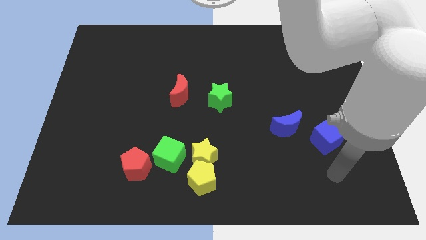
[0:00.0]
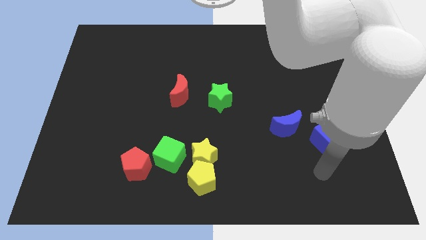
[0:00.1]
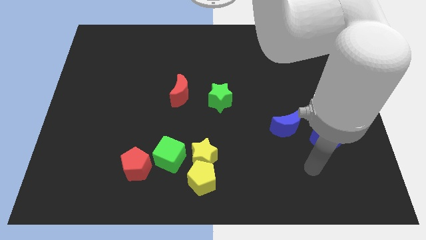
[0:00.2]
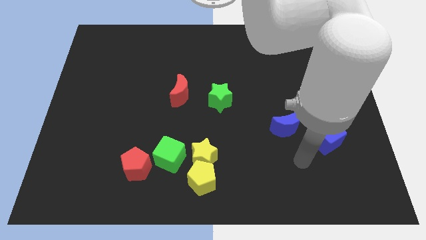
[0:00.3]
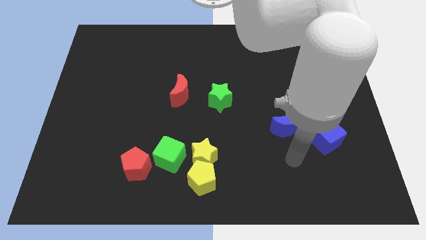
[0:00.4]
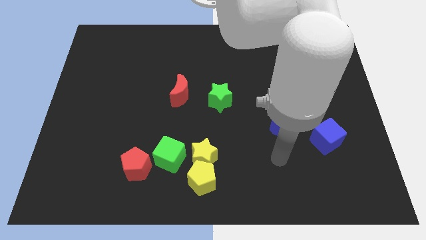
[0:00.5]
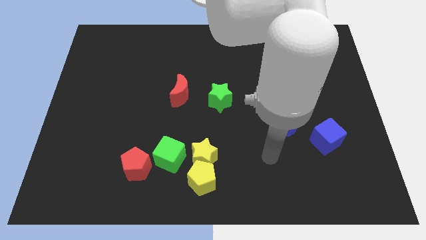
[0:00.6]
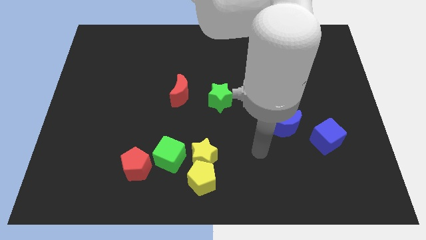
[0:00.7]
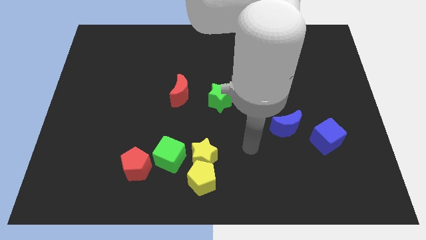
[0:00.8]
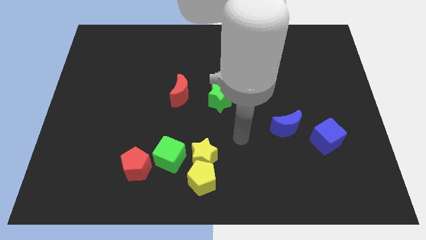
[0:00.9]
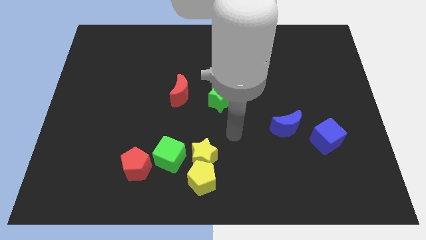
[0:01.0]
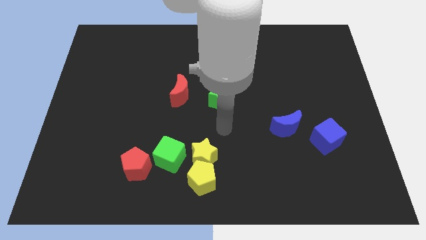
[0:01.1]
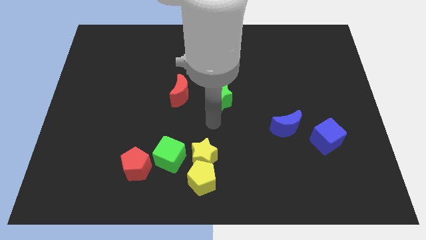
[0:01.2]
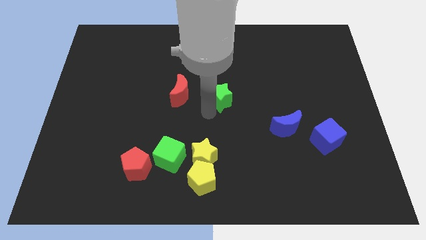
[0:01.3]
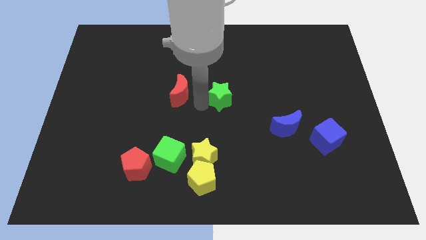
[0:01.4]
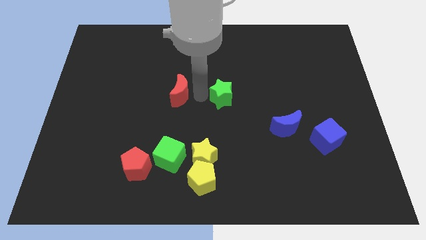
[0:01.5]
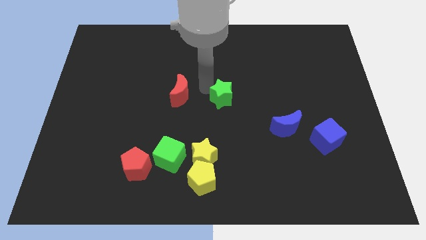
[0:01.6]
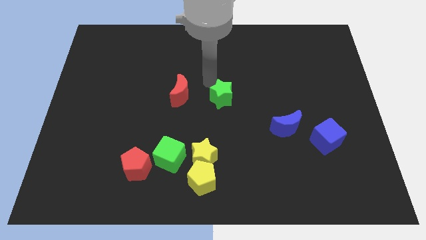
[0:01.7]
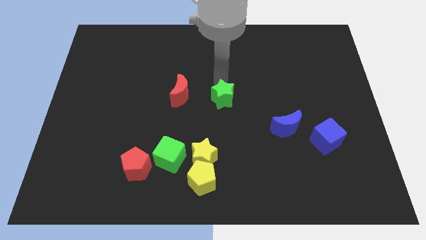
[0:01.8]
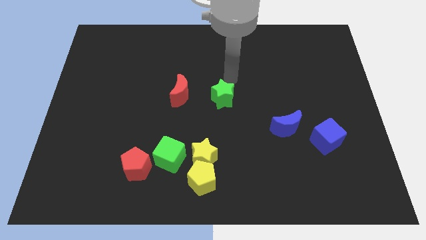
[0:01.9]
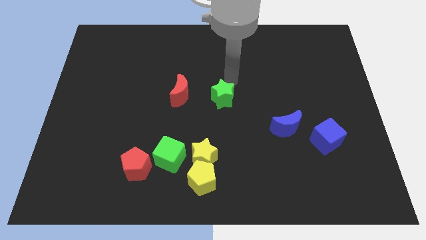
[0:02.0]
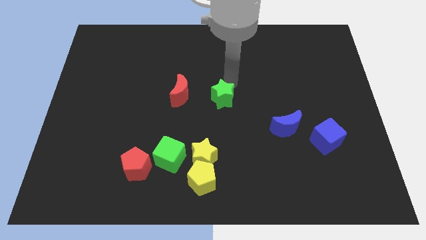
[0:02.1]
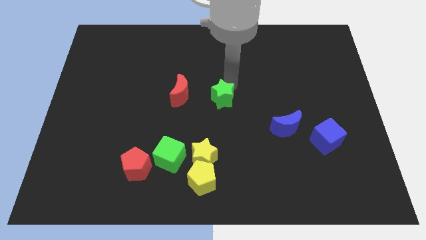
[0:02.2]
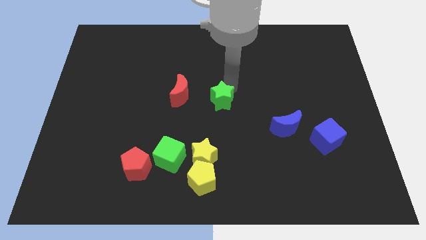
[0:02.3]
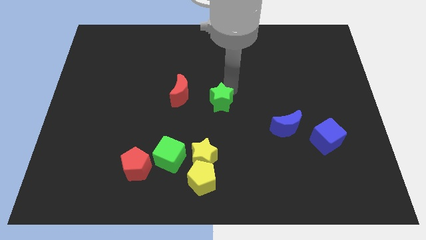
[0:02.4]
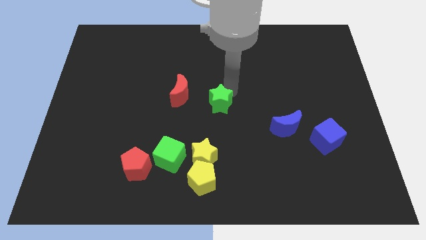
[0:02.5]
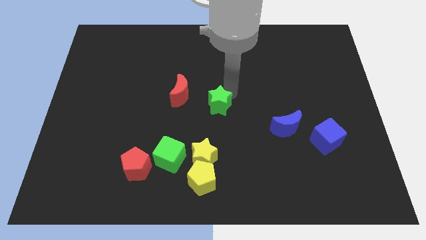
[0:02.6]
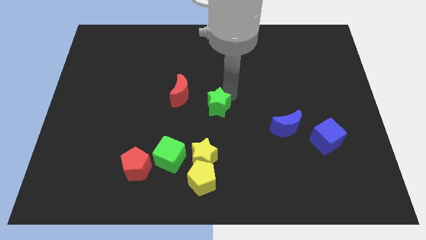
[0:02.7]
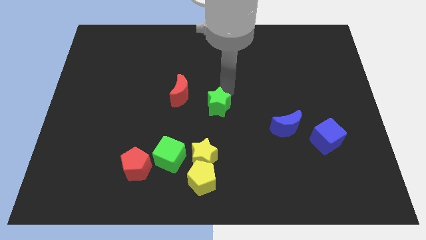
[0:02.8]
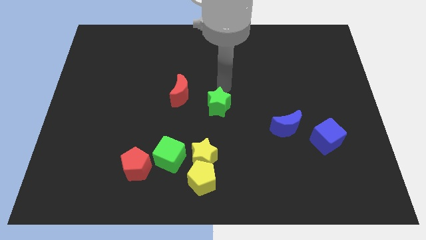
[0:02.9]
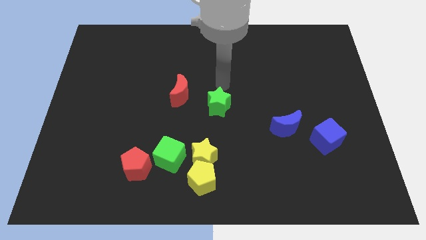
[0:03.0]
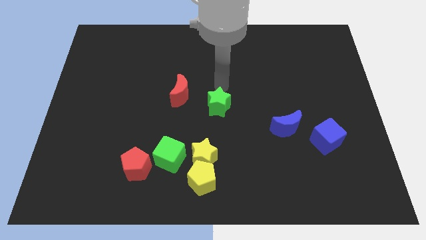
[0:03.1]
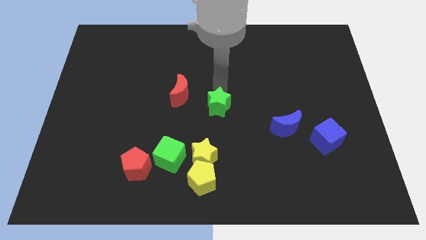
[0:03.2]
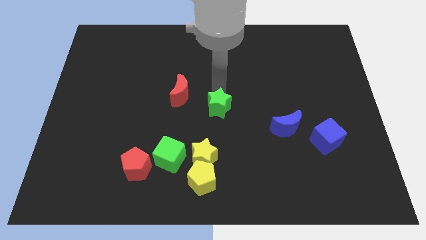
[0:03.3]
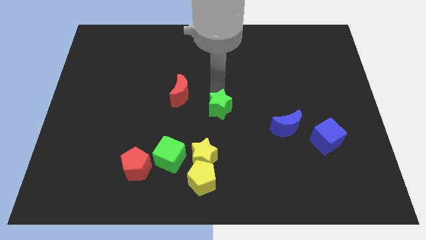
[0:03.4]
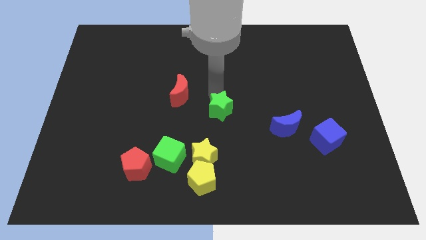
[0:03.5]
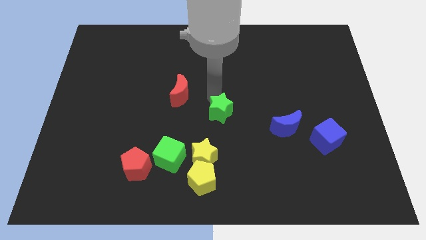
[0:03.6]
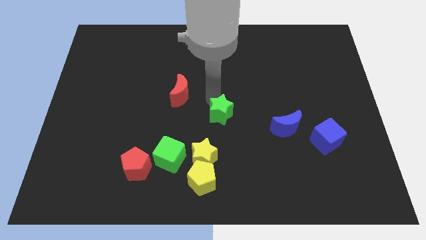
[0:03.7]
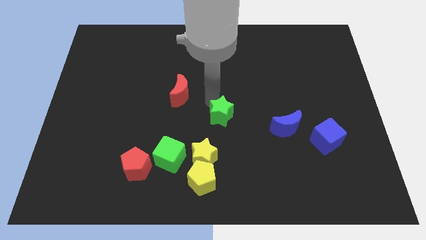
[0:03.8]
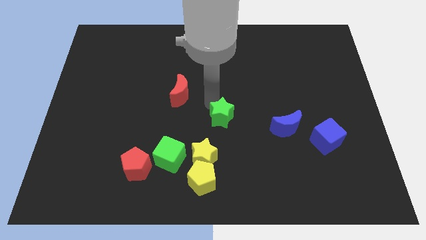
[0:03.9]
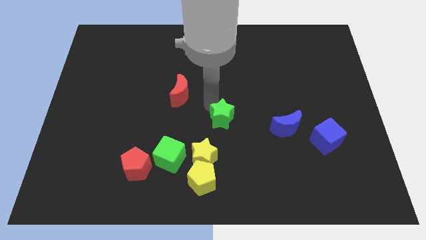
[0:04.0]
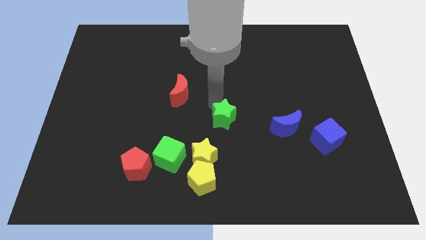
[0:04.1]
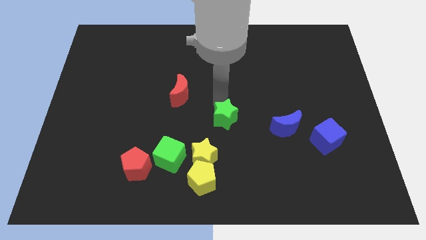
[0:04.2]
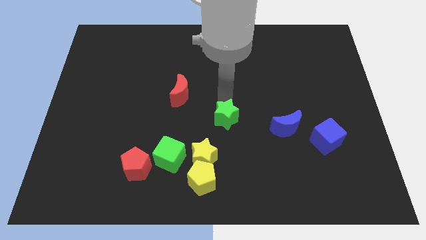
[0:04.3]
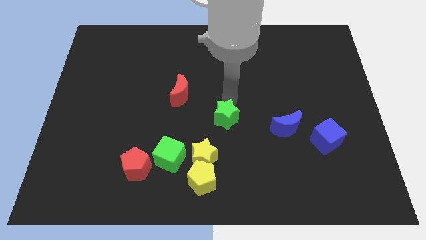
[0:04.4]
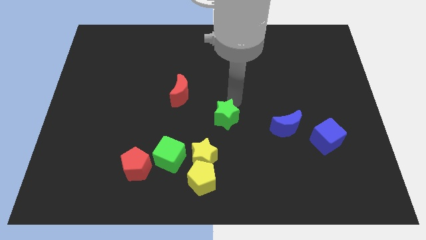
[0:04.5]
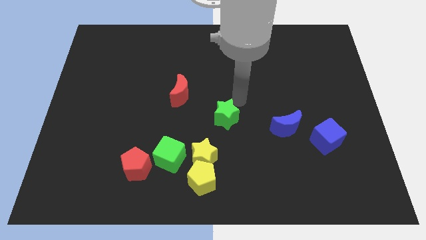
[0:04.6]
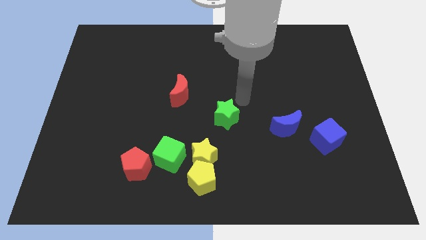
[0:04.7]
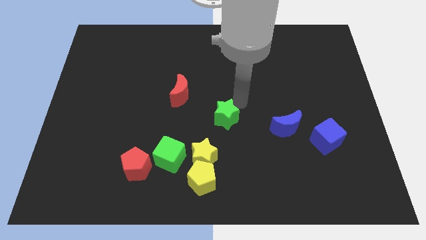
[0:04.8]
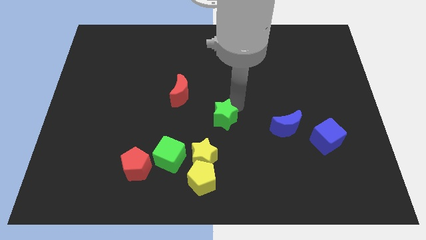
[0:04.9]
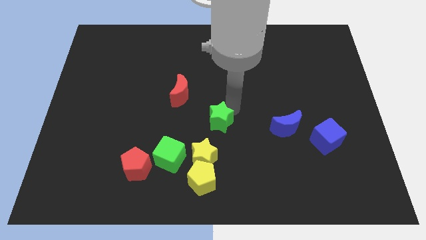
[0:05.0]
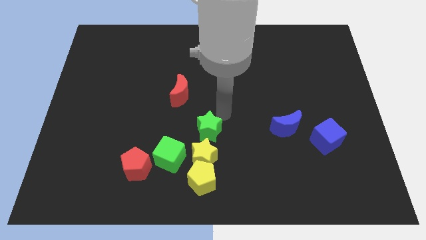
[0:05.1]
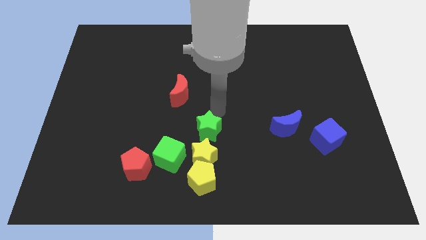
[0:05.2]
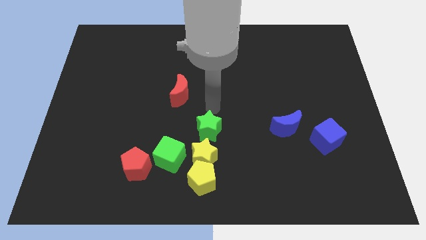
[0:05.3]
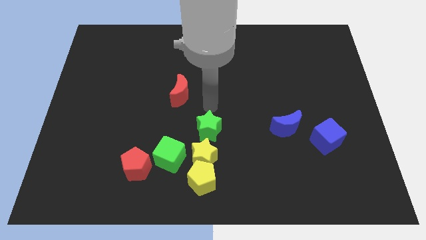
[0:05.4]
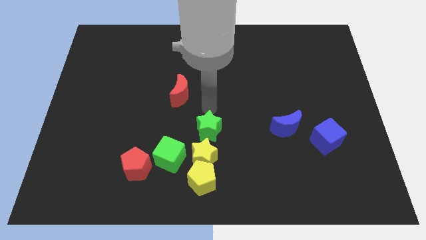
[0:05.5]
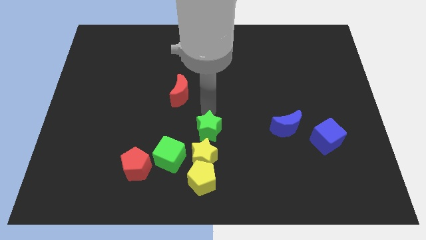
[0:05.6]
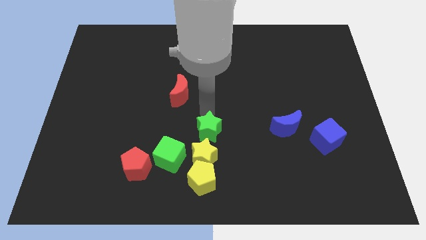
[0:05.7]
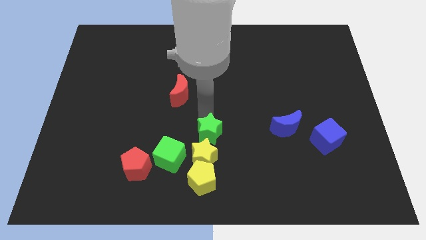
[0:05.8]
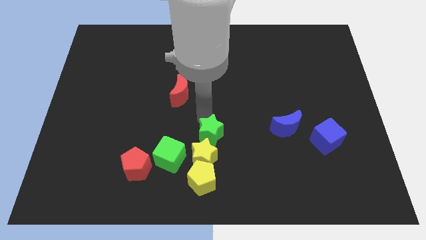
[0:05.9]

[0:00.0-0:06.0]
put the green star close to the yellow star

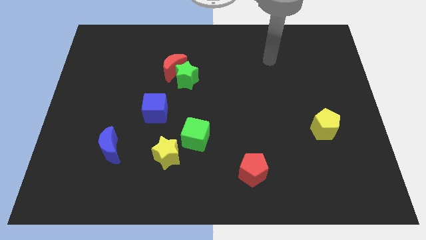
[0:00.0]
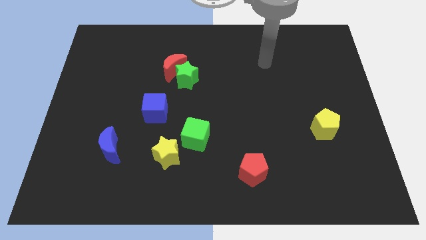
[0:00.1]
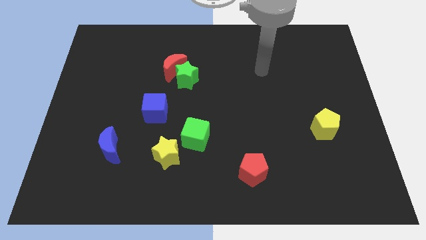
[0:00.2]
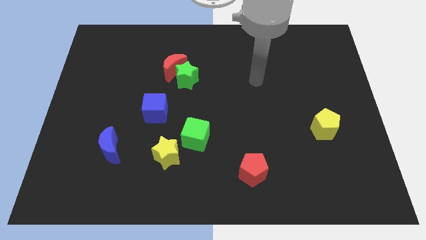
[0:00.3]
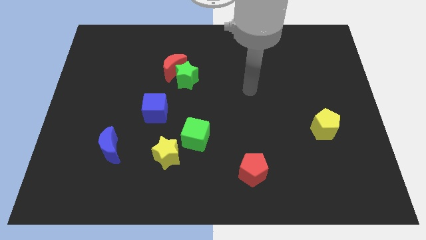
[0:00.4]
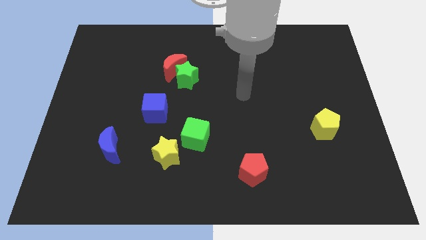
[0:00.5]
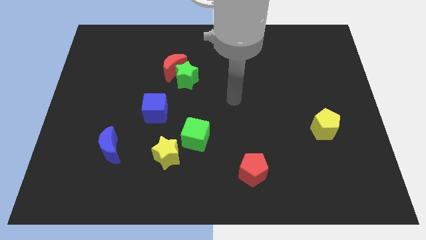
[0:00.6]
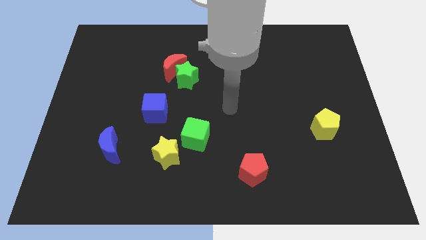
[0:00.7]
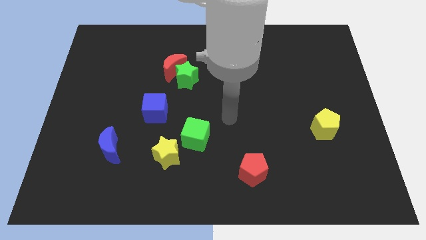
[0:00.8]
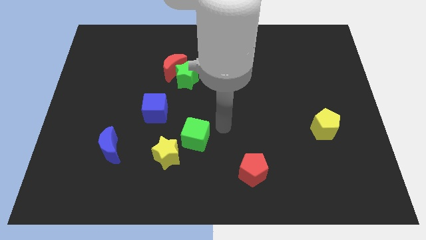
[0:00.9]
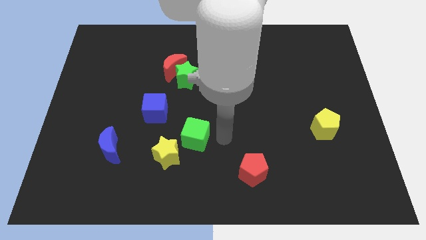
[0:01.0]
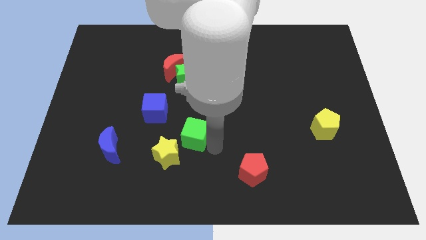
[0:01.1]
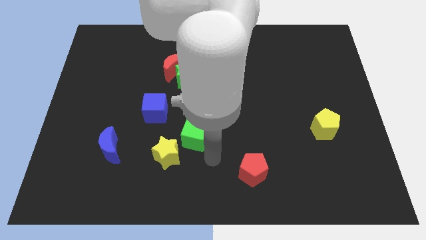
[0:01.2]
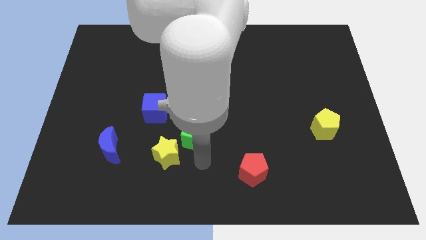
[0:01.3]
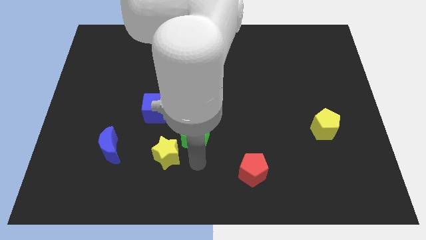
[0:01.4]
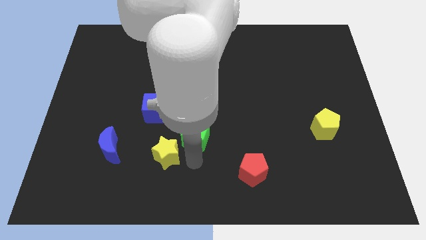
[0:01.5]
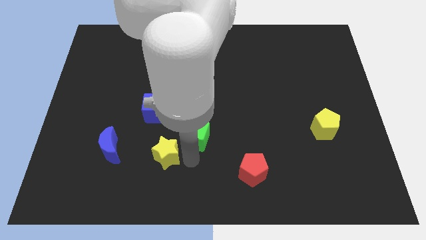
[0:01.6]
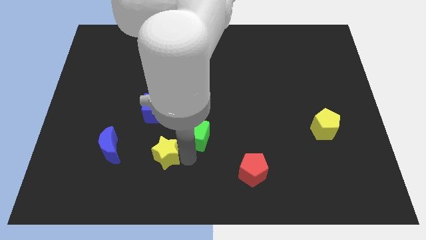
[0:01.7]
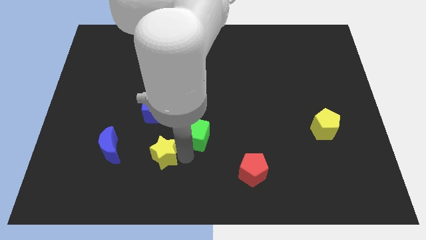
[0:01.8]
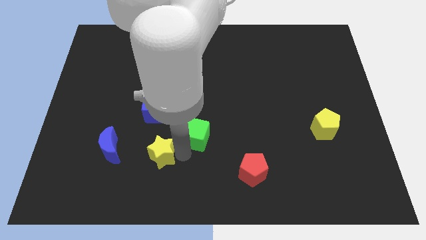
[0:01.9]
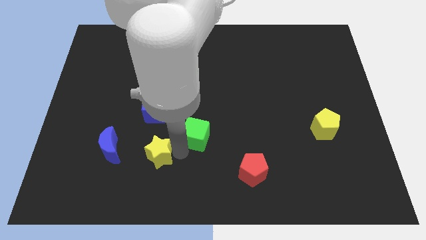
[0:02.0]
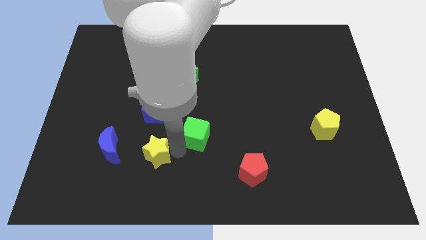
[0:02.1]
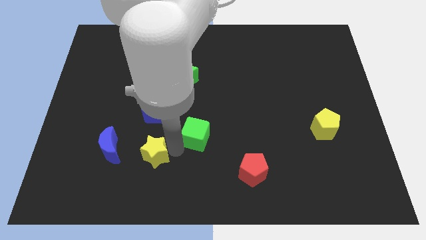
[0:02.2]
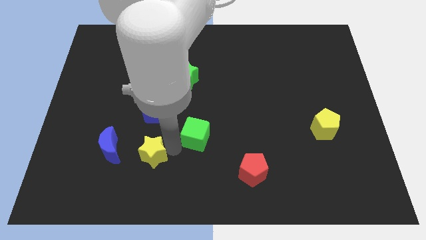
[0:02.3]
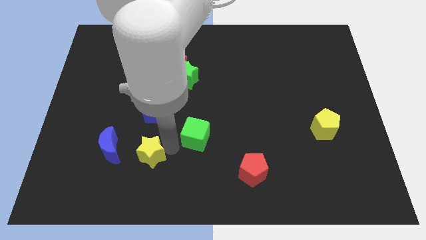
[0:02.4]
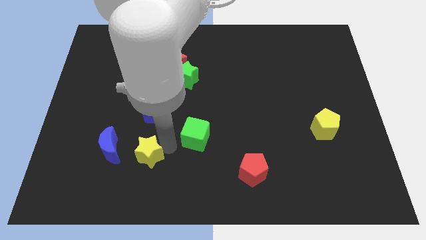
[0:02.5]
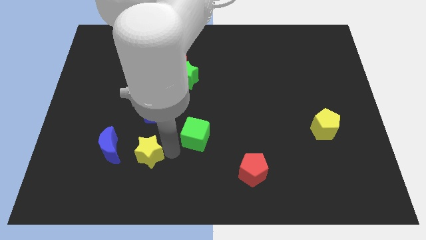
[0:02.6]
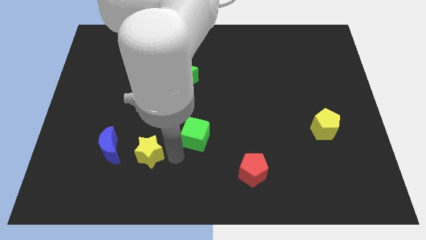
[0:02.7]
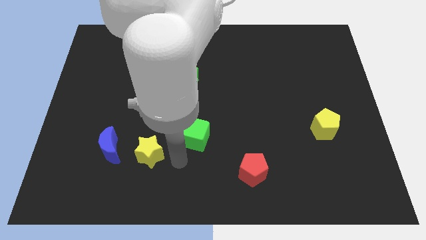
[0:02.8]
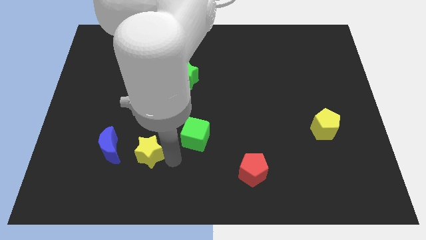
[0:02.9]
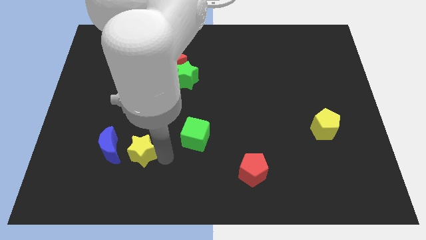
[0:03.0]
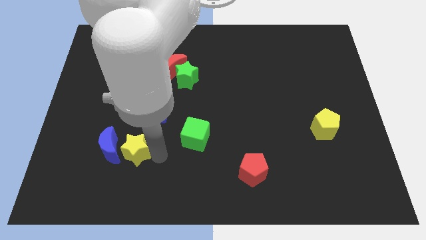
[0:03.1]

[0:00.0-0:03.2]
put the yellow star to the blue moon
